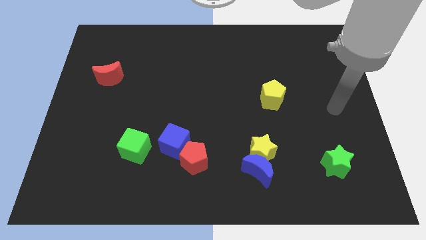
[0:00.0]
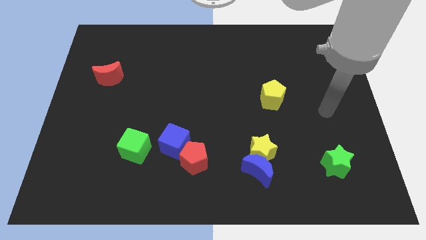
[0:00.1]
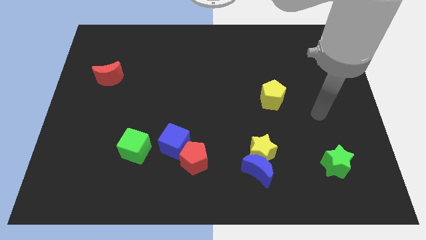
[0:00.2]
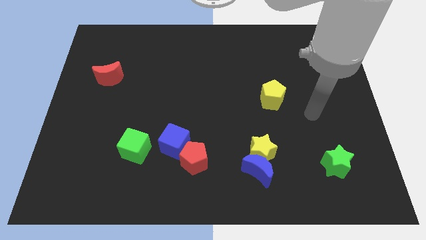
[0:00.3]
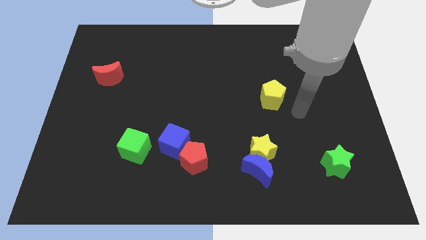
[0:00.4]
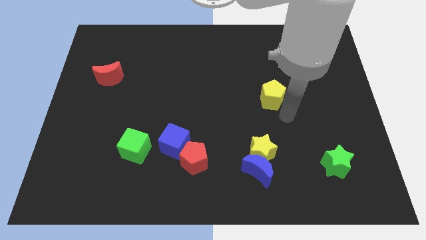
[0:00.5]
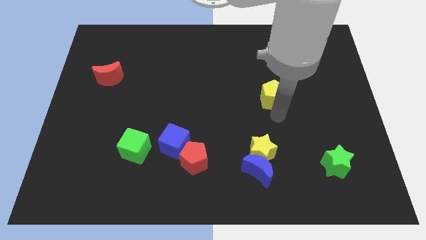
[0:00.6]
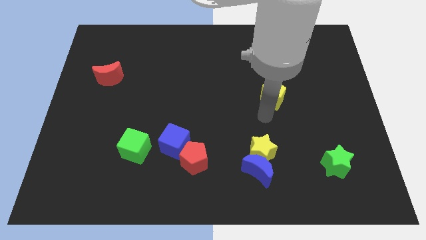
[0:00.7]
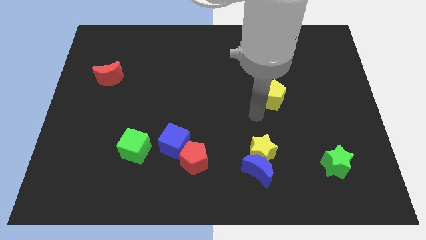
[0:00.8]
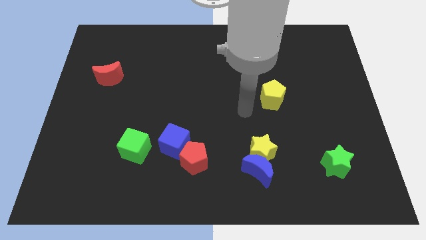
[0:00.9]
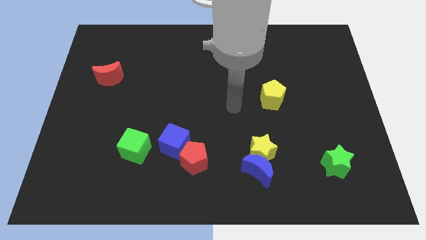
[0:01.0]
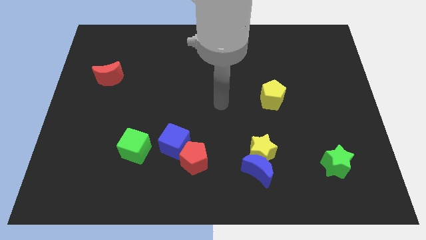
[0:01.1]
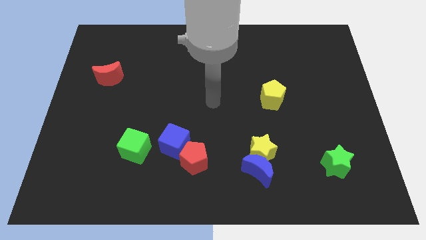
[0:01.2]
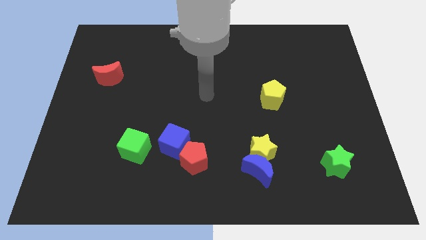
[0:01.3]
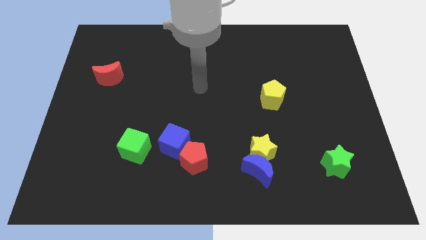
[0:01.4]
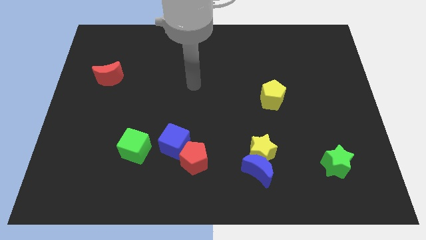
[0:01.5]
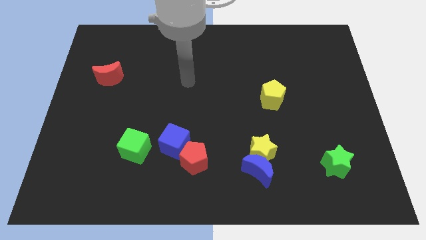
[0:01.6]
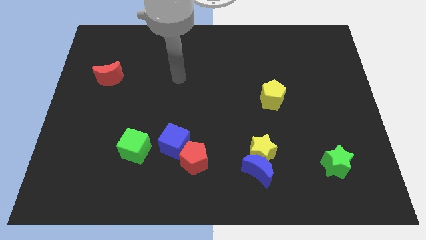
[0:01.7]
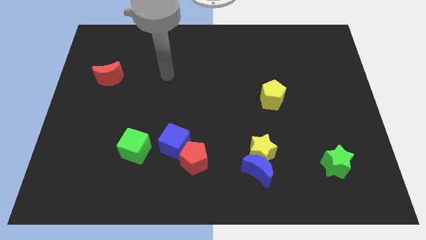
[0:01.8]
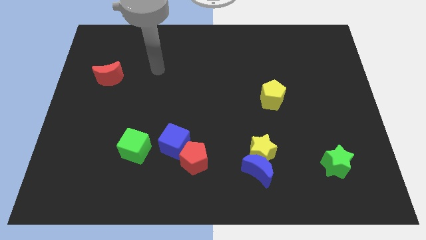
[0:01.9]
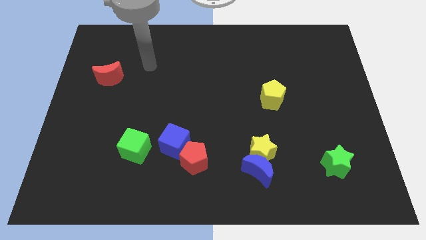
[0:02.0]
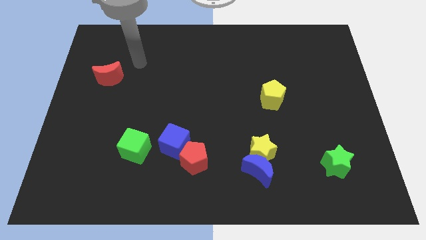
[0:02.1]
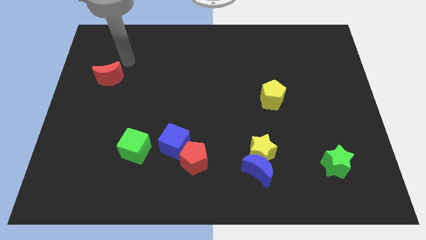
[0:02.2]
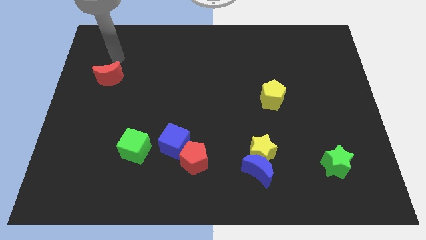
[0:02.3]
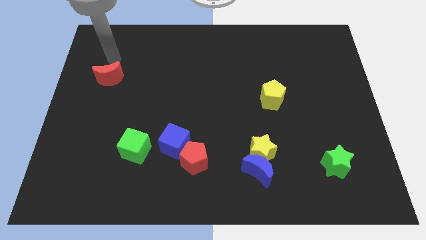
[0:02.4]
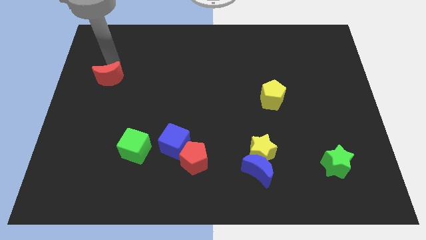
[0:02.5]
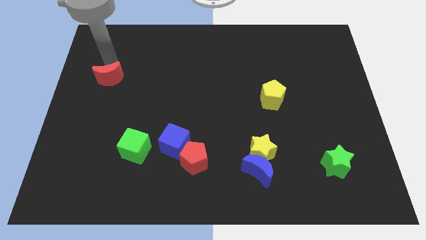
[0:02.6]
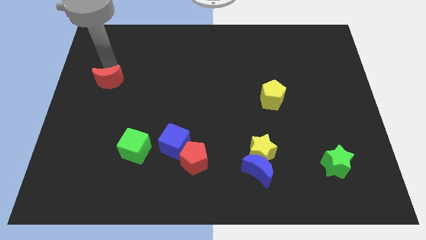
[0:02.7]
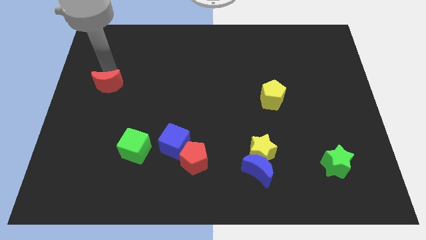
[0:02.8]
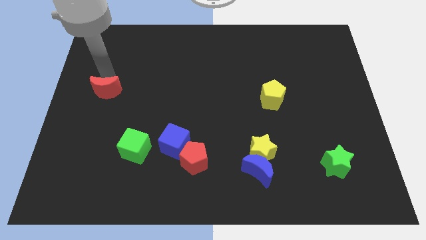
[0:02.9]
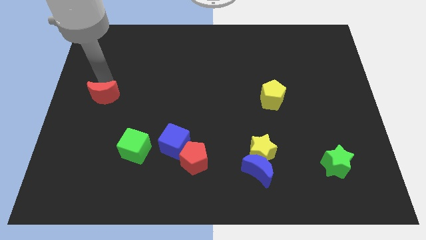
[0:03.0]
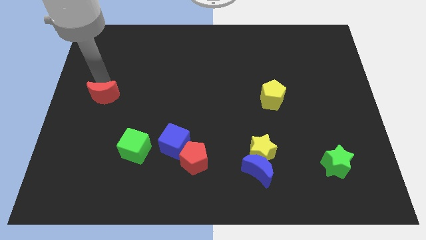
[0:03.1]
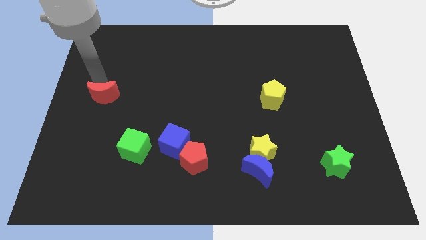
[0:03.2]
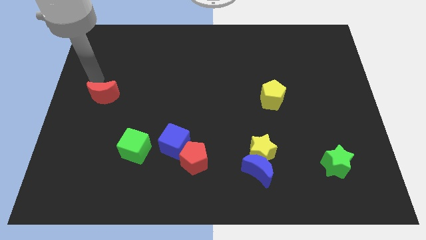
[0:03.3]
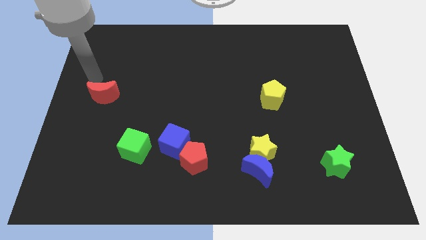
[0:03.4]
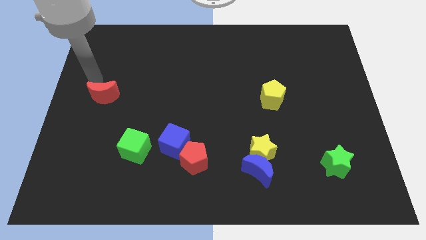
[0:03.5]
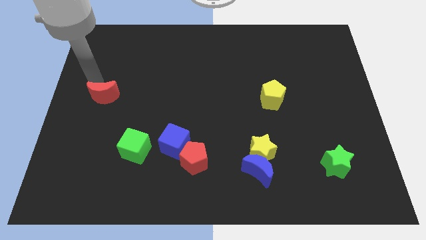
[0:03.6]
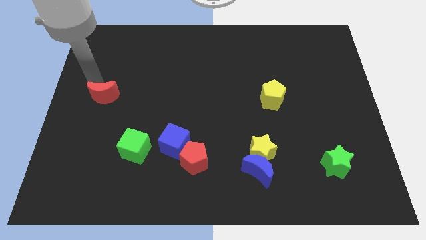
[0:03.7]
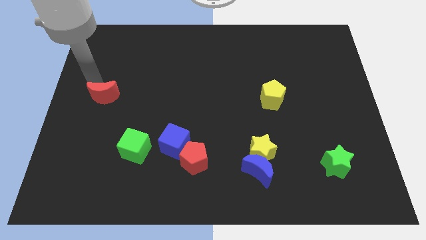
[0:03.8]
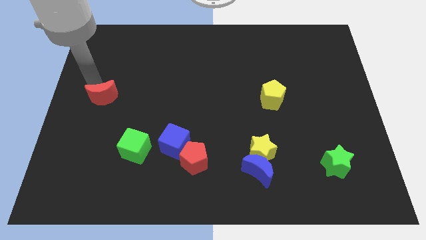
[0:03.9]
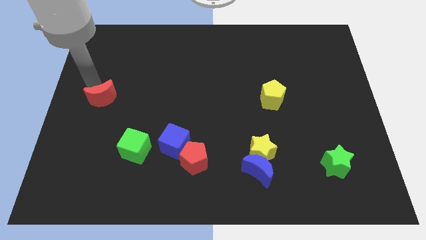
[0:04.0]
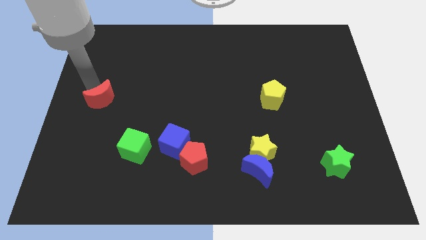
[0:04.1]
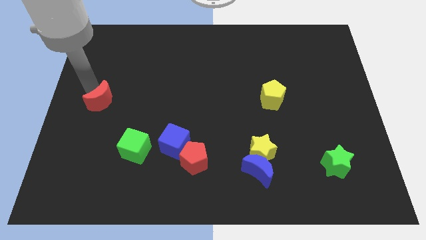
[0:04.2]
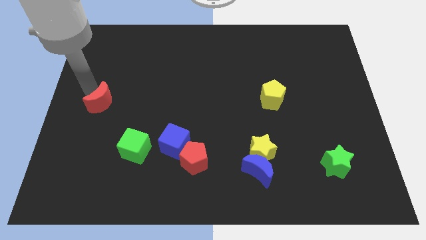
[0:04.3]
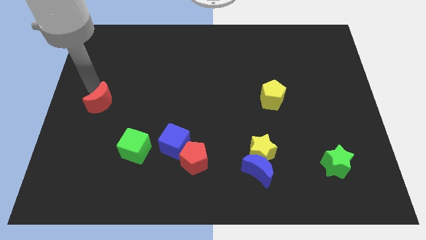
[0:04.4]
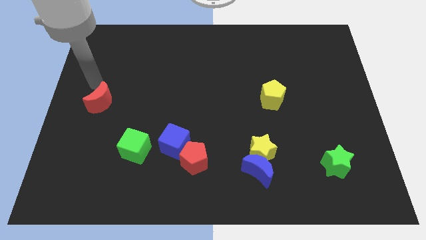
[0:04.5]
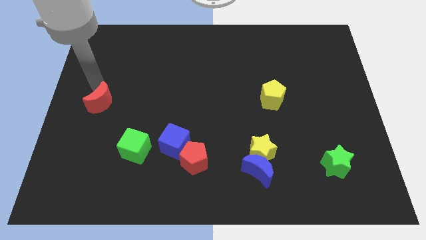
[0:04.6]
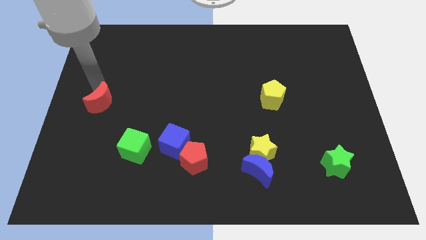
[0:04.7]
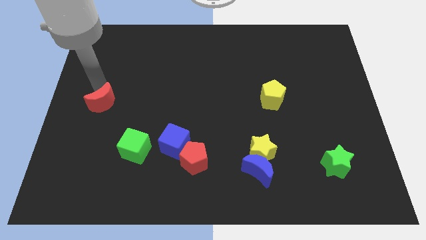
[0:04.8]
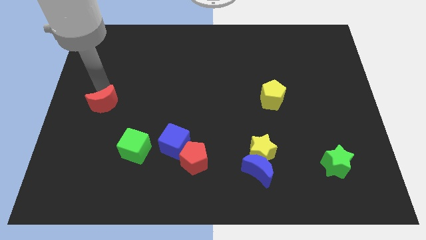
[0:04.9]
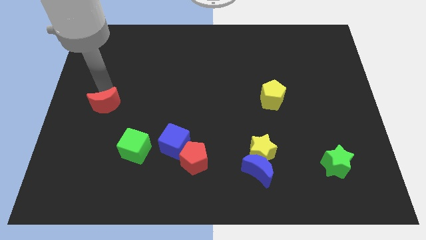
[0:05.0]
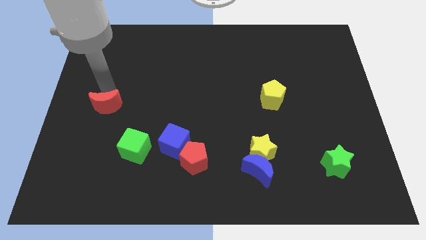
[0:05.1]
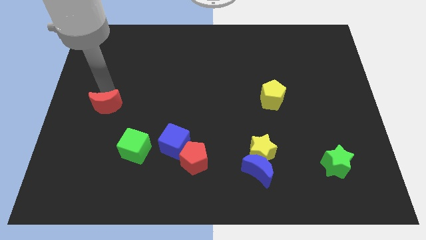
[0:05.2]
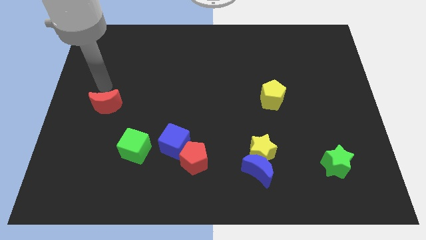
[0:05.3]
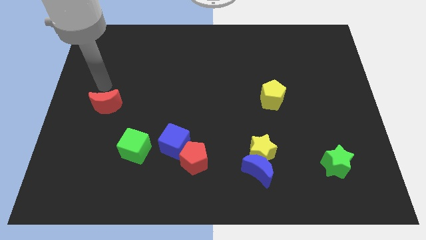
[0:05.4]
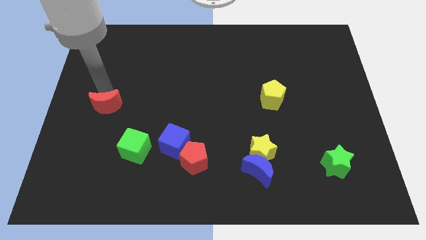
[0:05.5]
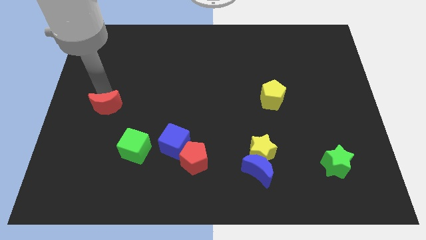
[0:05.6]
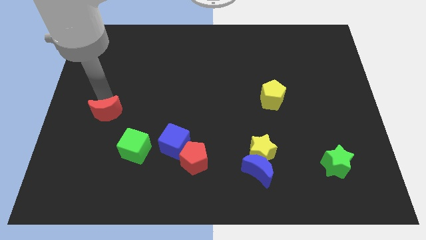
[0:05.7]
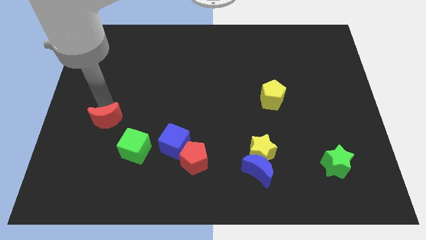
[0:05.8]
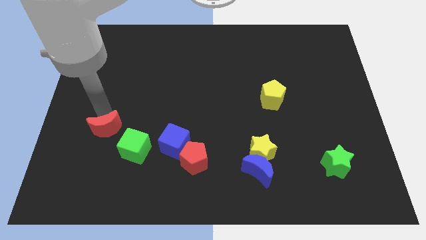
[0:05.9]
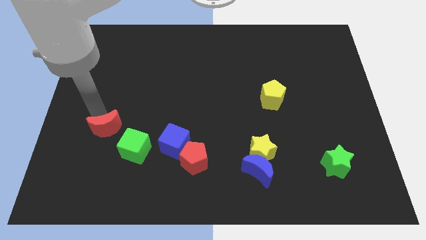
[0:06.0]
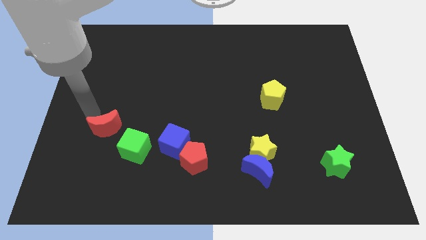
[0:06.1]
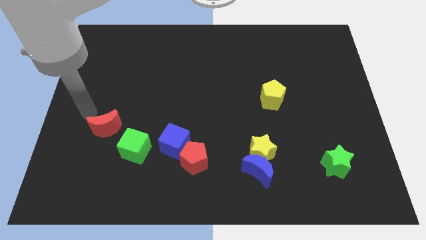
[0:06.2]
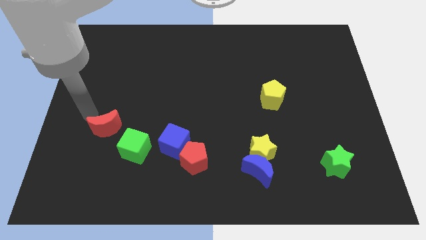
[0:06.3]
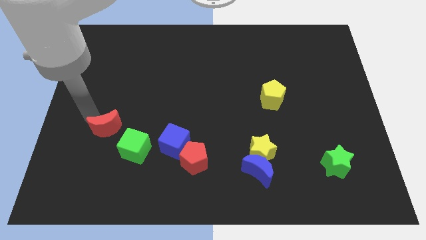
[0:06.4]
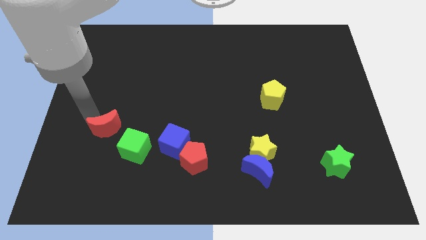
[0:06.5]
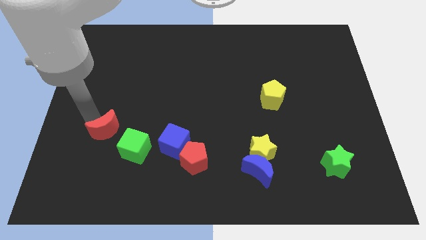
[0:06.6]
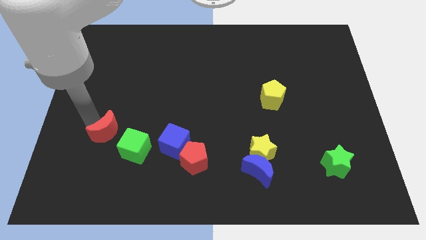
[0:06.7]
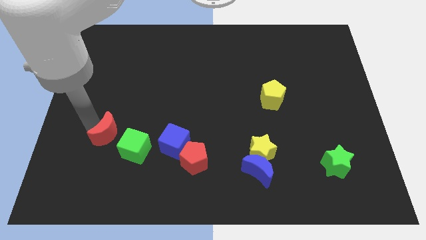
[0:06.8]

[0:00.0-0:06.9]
slide the red moon to the left of the blue cube

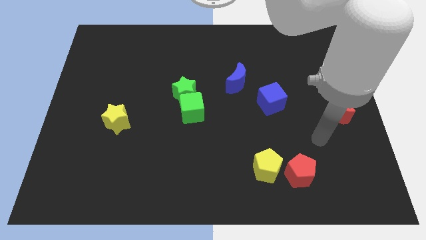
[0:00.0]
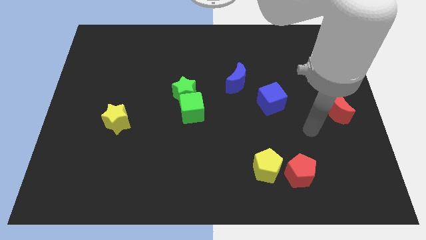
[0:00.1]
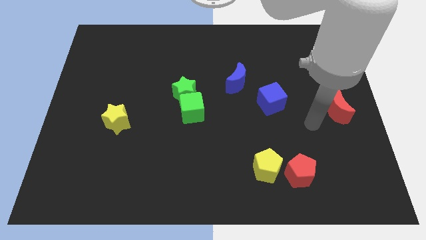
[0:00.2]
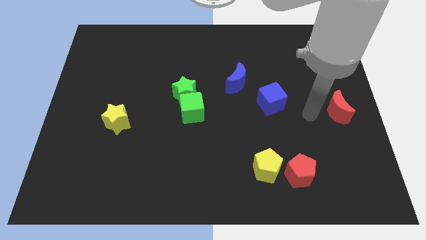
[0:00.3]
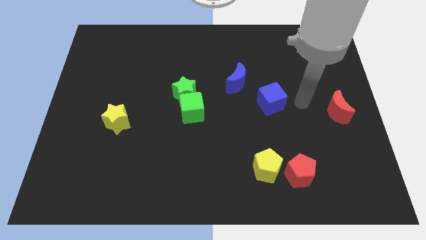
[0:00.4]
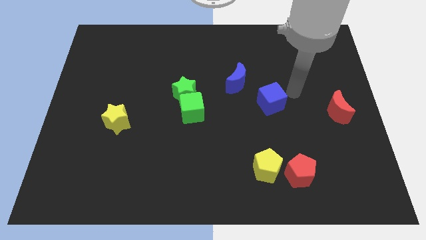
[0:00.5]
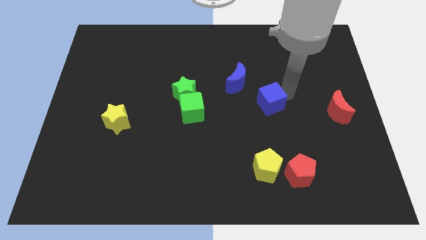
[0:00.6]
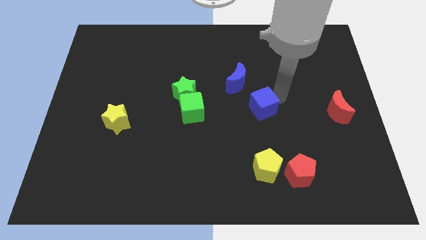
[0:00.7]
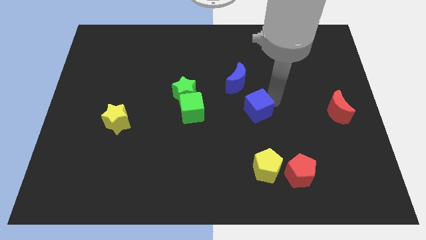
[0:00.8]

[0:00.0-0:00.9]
slide the blue cube to the bottom of the blue moon
